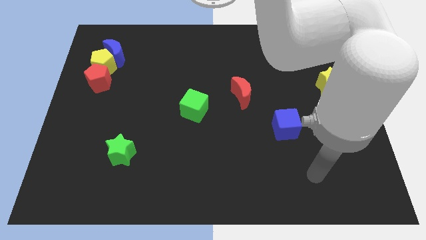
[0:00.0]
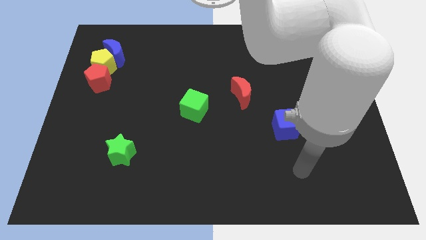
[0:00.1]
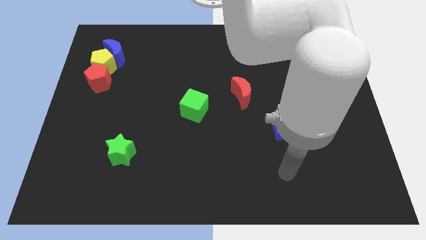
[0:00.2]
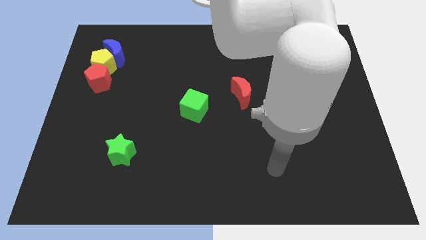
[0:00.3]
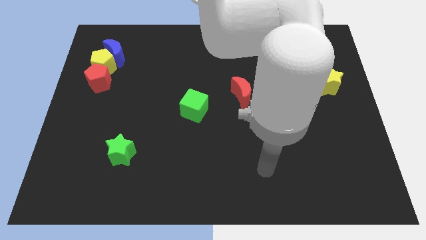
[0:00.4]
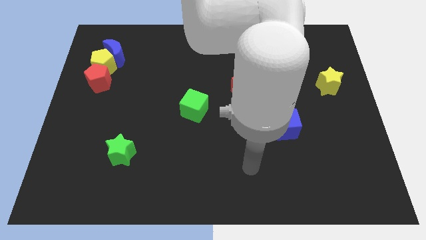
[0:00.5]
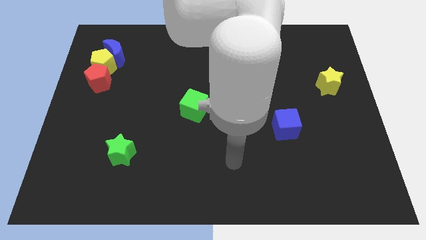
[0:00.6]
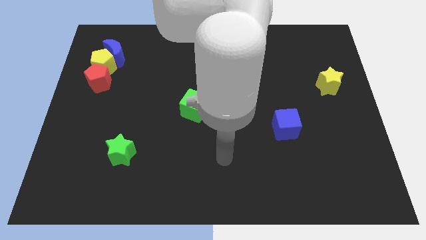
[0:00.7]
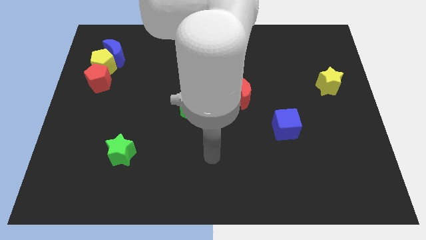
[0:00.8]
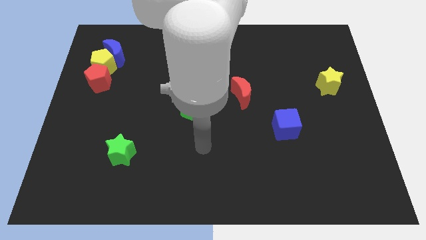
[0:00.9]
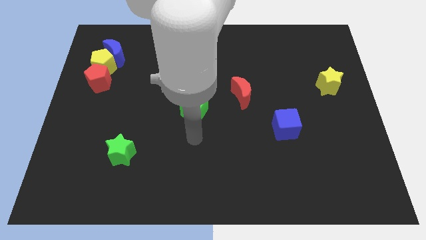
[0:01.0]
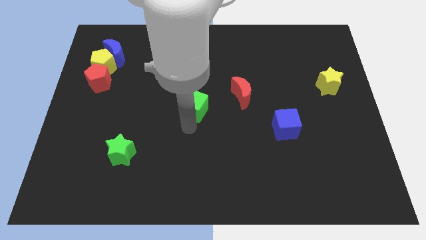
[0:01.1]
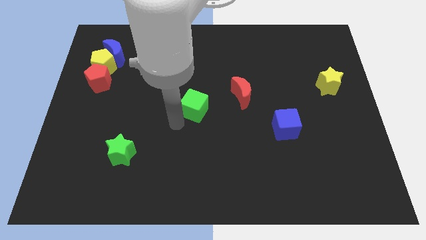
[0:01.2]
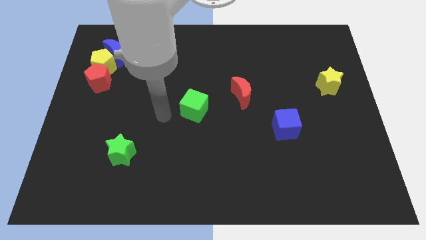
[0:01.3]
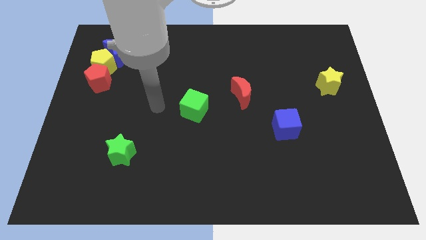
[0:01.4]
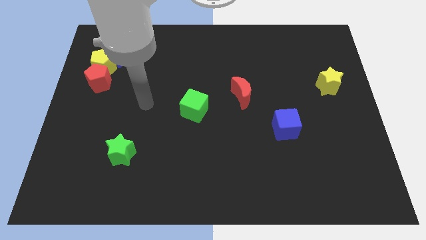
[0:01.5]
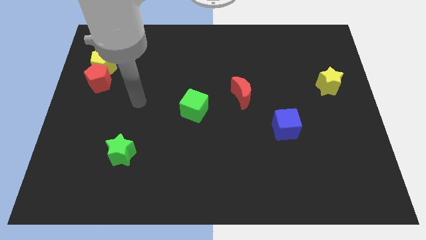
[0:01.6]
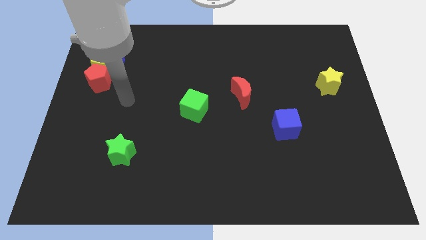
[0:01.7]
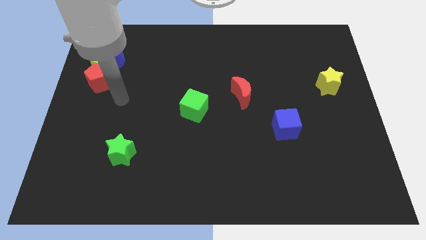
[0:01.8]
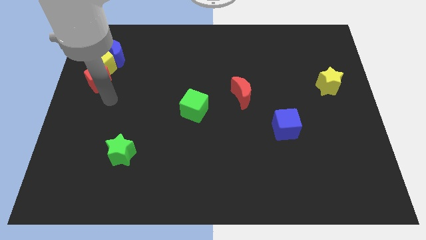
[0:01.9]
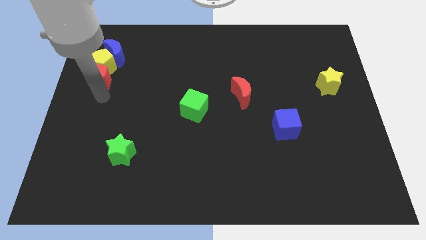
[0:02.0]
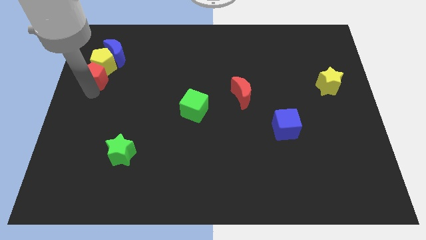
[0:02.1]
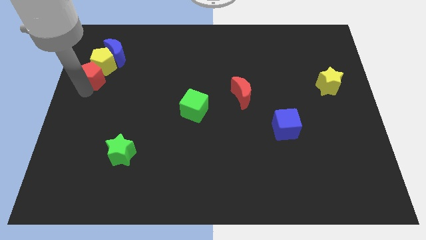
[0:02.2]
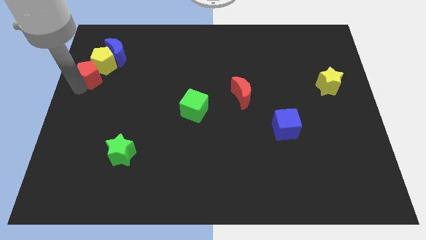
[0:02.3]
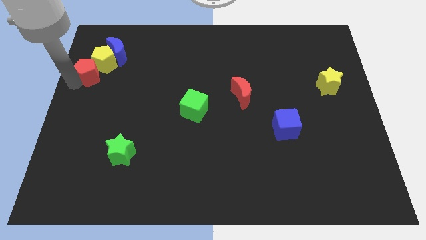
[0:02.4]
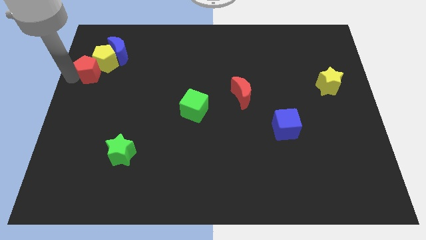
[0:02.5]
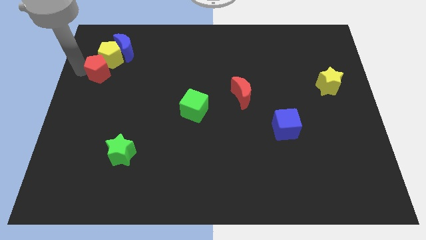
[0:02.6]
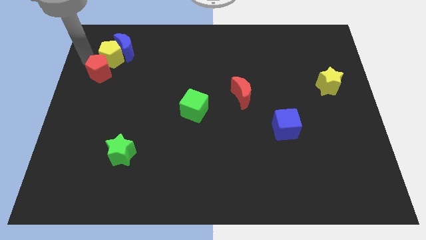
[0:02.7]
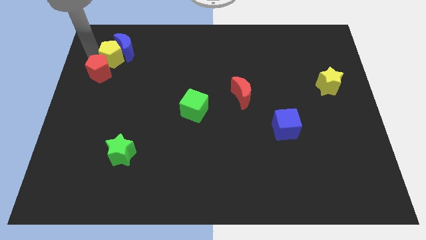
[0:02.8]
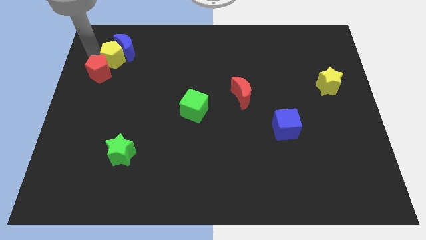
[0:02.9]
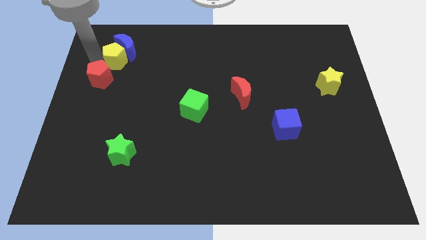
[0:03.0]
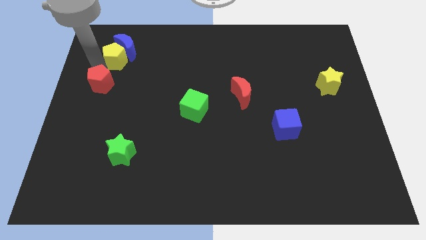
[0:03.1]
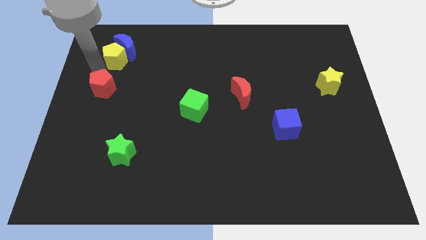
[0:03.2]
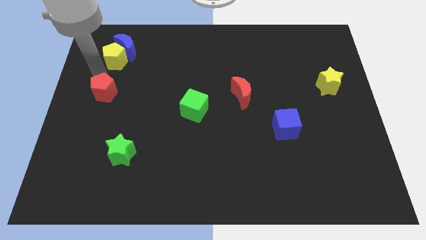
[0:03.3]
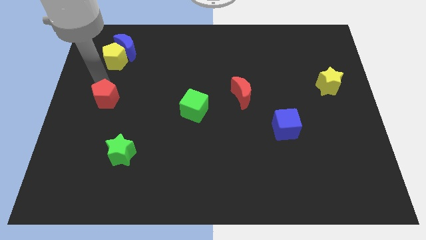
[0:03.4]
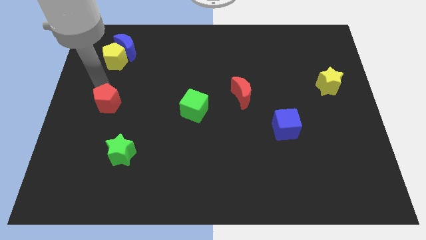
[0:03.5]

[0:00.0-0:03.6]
move the red pentagon downwards and to the right a little

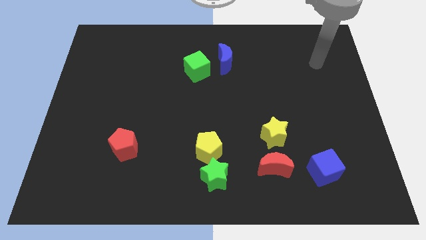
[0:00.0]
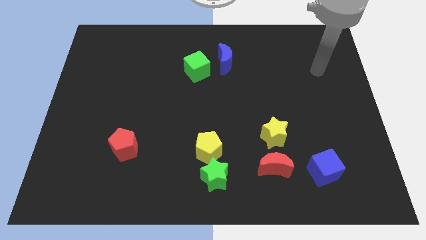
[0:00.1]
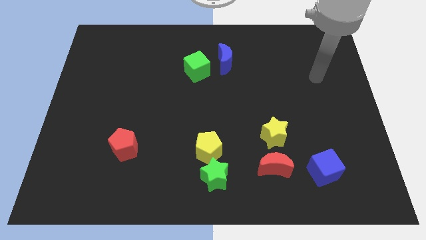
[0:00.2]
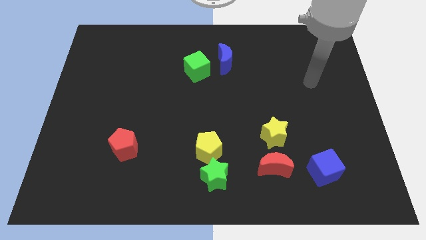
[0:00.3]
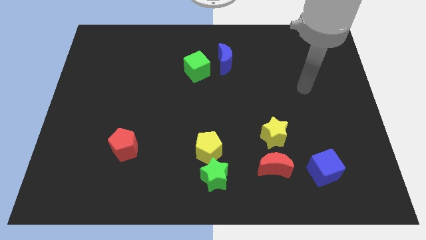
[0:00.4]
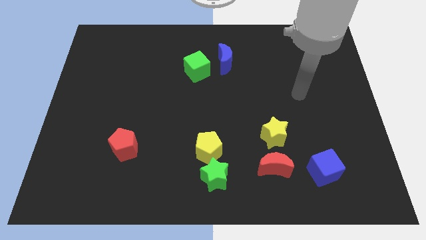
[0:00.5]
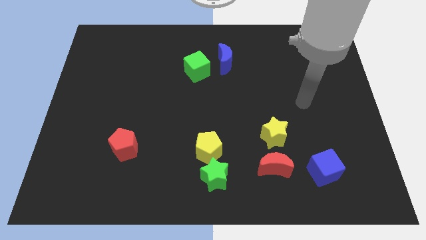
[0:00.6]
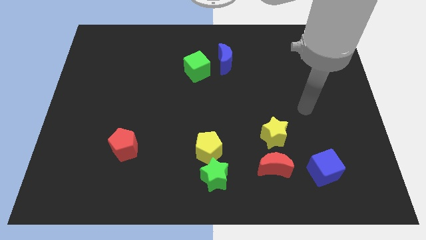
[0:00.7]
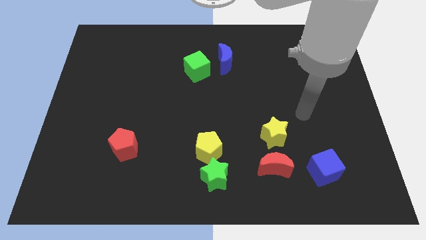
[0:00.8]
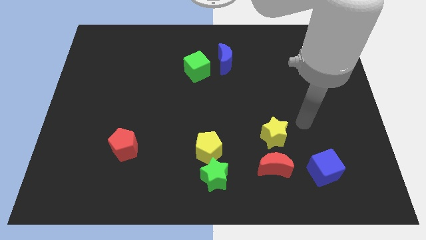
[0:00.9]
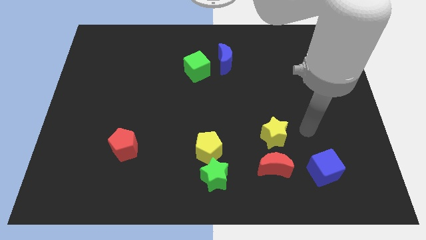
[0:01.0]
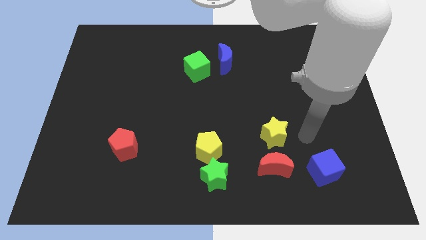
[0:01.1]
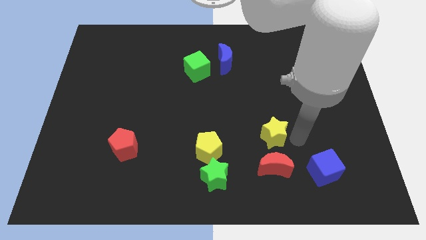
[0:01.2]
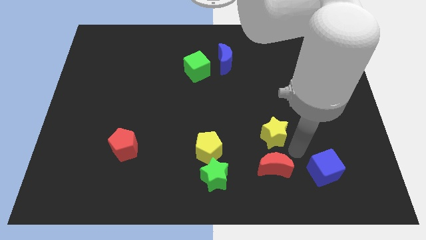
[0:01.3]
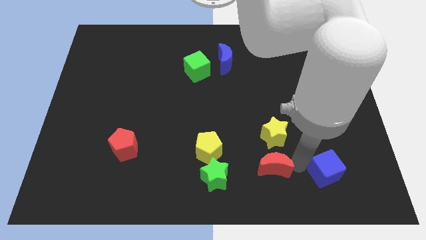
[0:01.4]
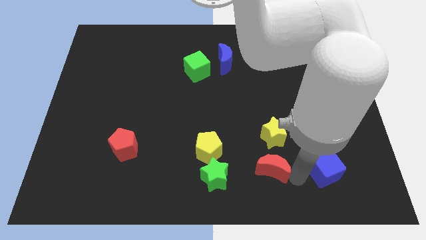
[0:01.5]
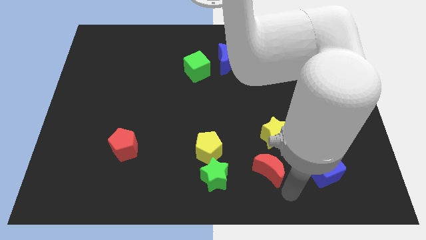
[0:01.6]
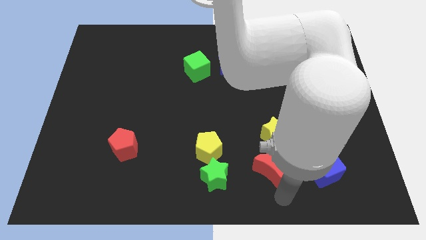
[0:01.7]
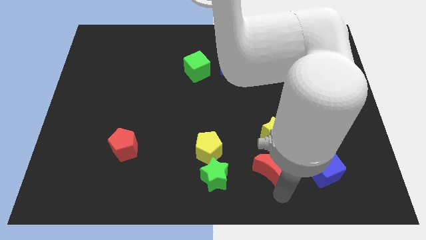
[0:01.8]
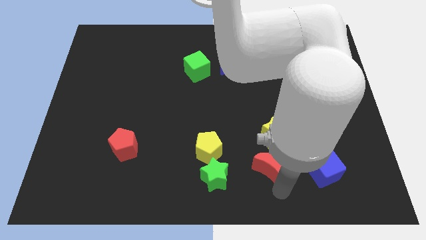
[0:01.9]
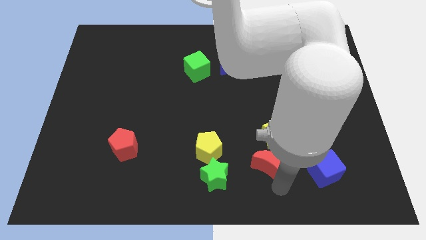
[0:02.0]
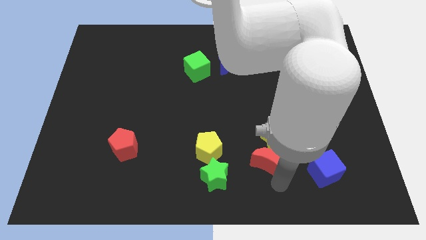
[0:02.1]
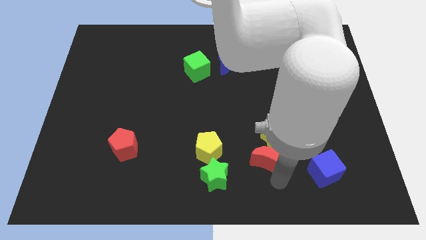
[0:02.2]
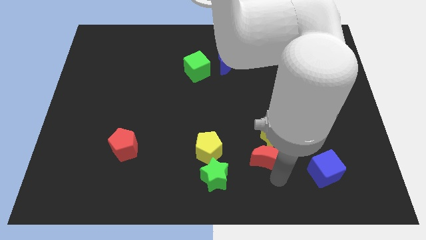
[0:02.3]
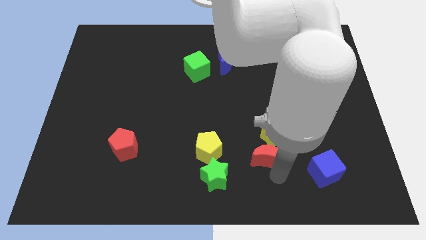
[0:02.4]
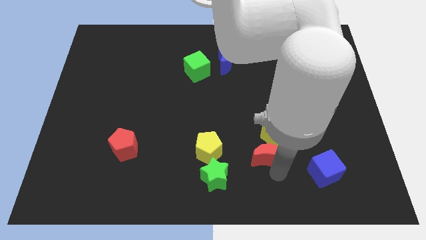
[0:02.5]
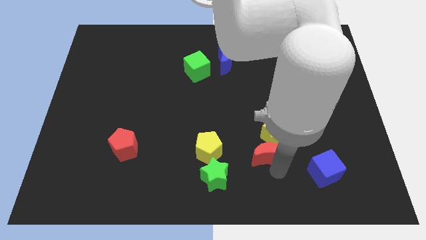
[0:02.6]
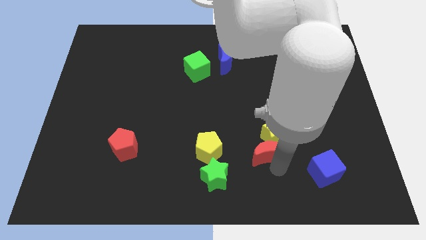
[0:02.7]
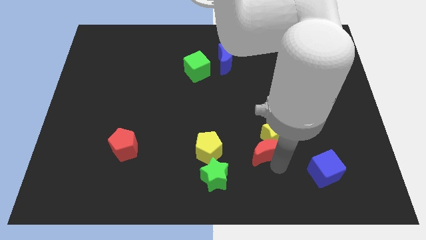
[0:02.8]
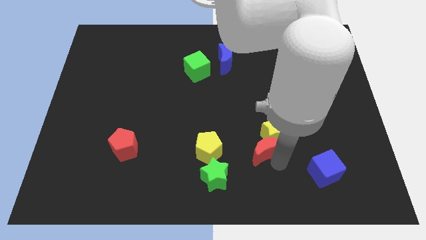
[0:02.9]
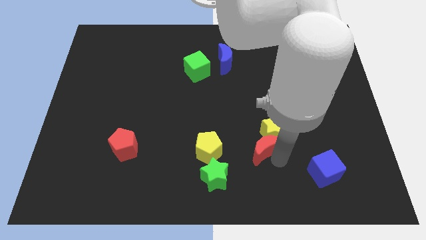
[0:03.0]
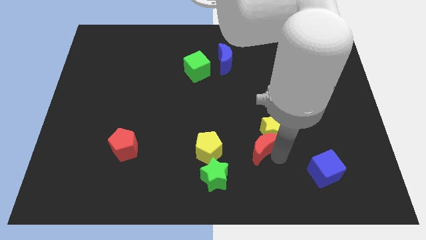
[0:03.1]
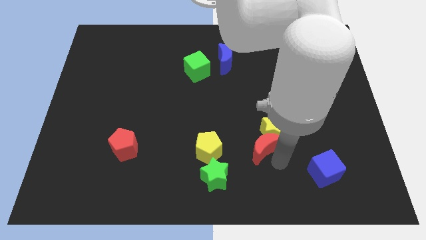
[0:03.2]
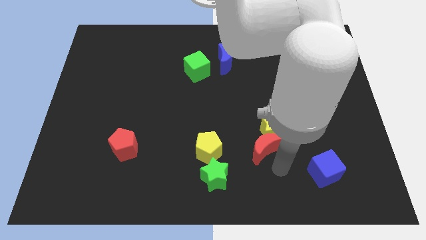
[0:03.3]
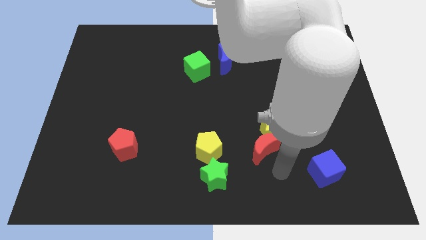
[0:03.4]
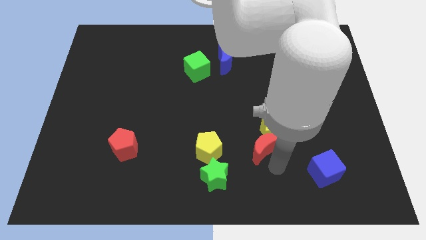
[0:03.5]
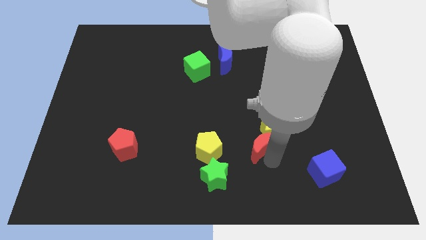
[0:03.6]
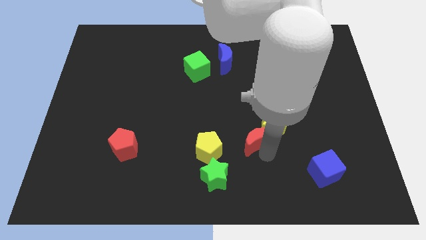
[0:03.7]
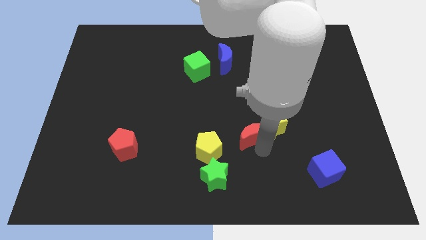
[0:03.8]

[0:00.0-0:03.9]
move the red moon upwards a little

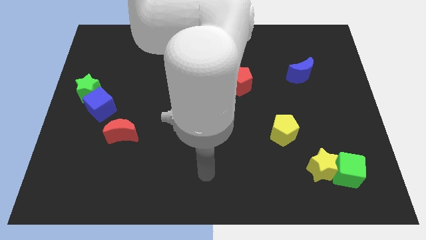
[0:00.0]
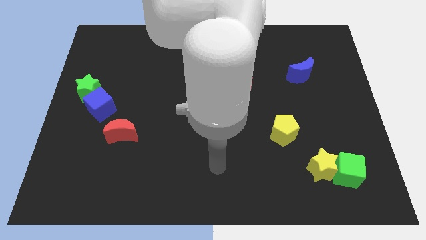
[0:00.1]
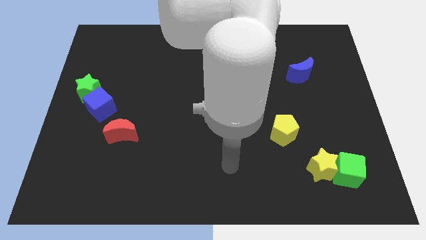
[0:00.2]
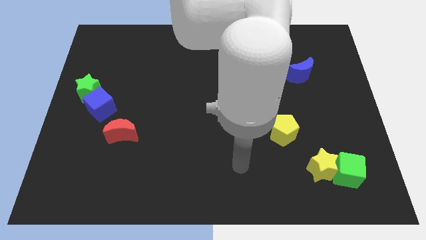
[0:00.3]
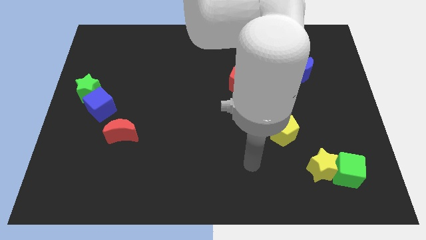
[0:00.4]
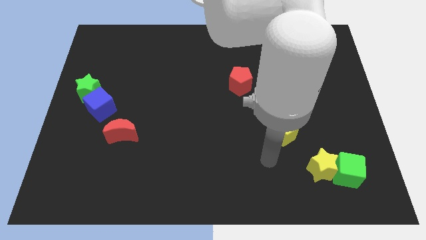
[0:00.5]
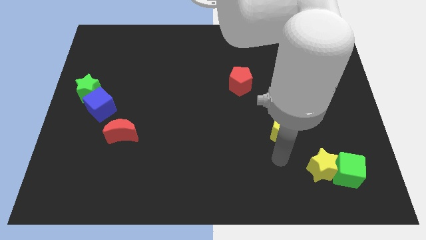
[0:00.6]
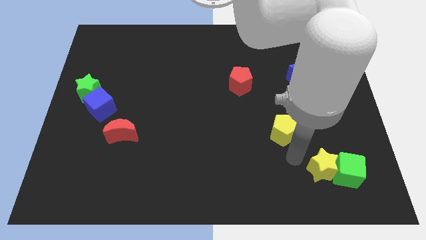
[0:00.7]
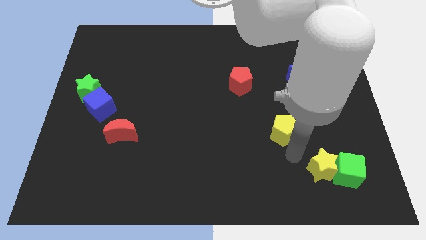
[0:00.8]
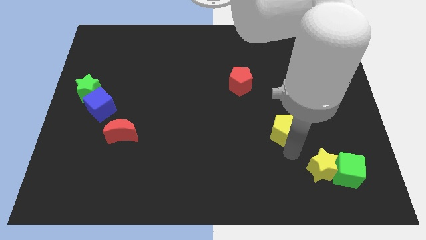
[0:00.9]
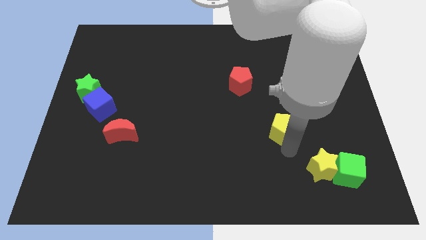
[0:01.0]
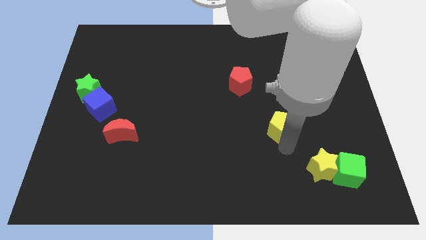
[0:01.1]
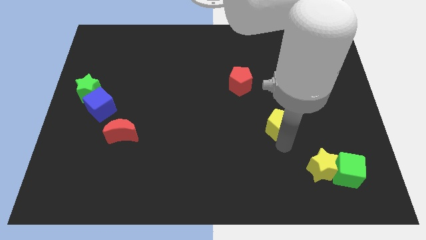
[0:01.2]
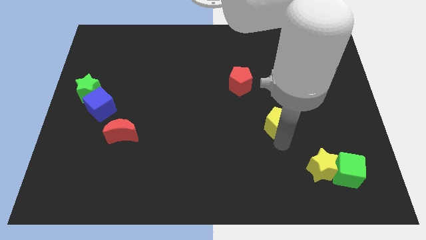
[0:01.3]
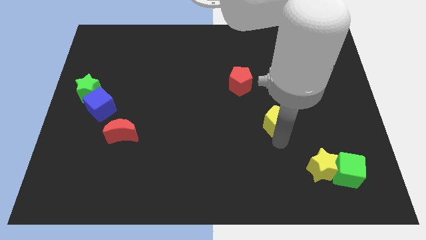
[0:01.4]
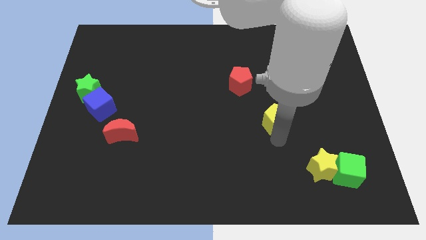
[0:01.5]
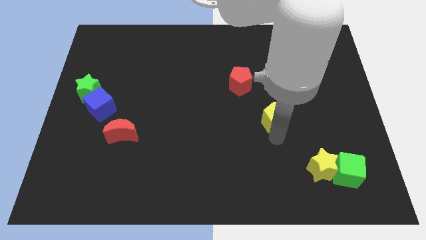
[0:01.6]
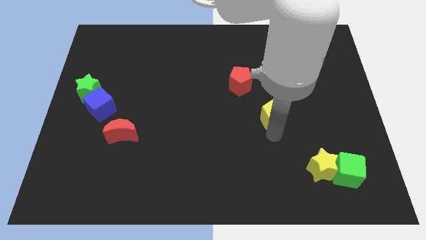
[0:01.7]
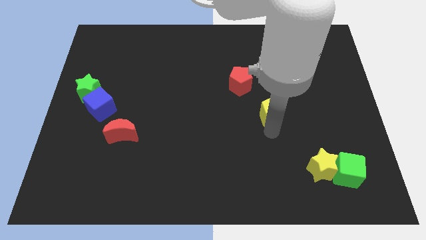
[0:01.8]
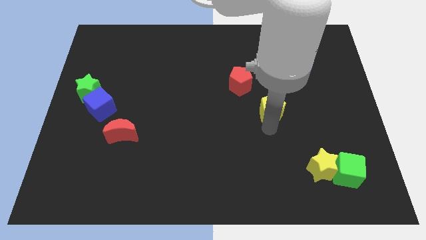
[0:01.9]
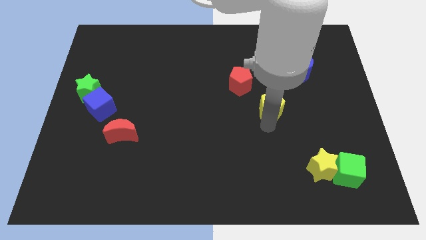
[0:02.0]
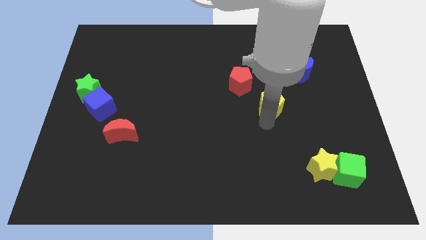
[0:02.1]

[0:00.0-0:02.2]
slightly slide the yellow pentagon up
